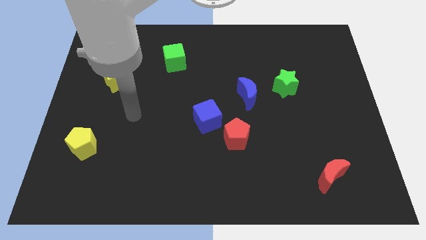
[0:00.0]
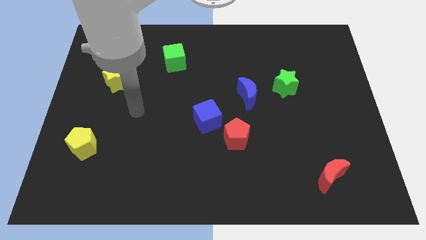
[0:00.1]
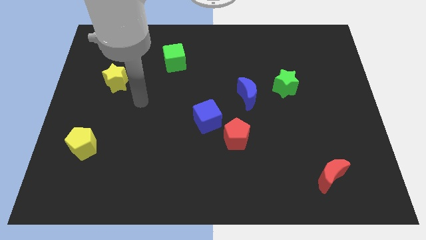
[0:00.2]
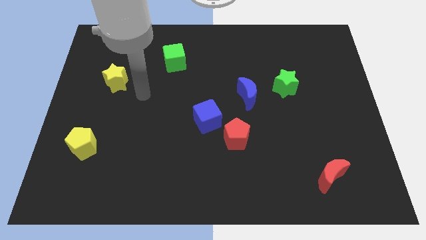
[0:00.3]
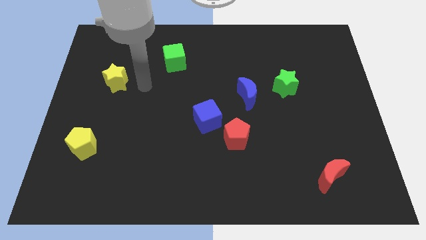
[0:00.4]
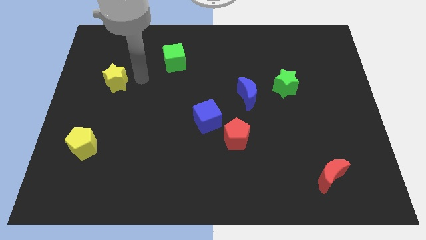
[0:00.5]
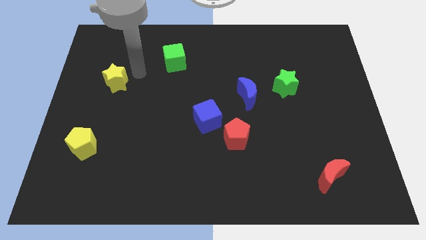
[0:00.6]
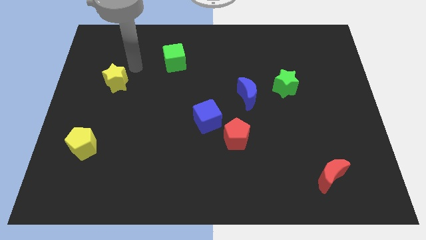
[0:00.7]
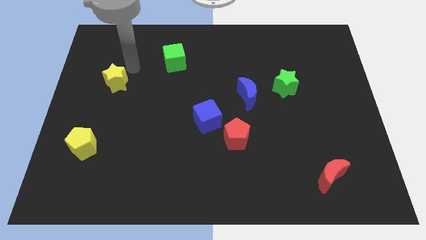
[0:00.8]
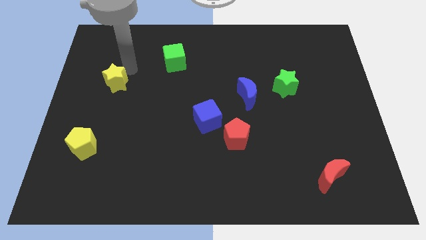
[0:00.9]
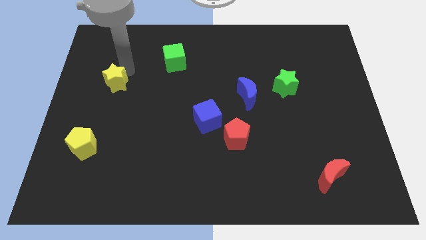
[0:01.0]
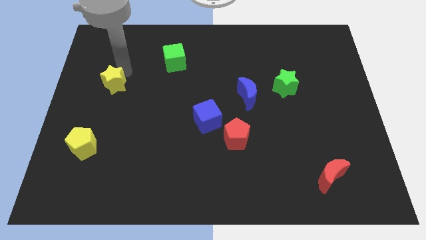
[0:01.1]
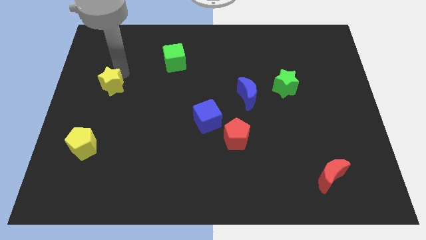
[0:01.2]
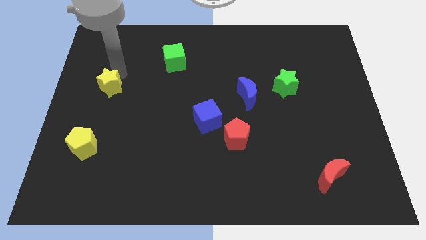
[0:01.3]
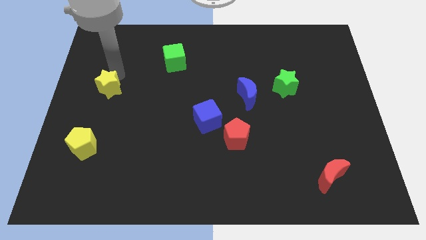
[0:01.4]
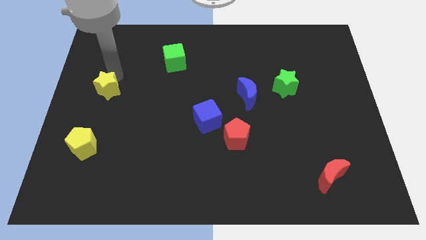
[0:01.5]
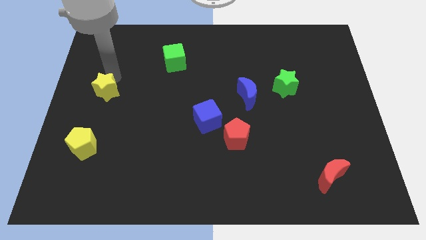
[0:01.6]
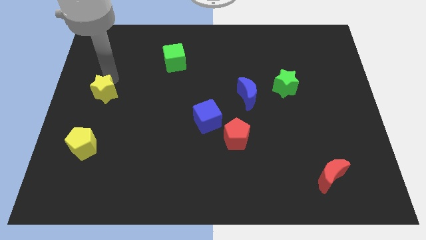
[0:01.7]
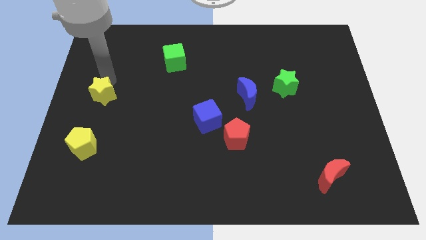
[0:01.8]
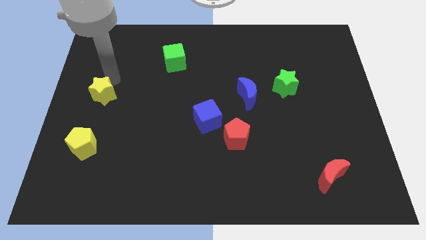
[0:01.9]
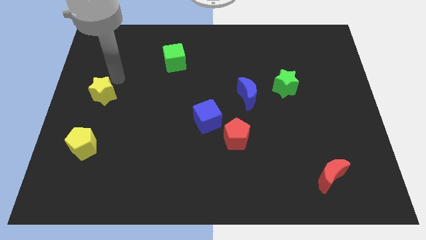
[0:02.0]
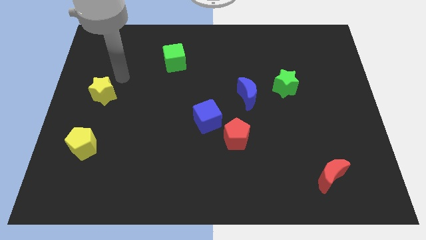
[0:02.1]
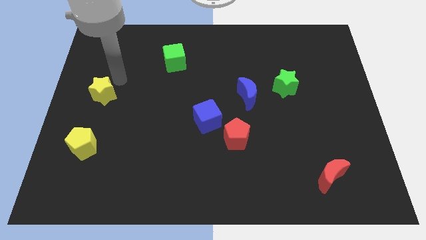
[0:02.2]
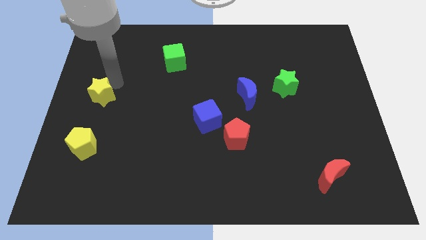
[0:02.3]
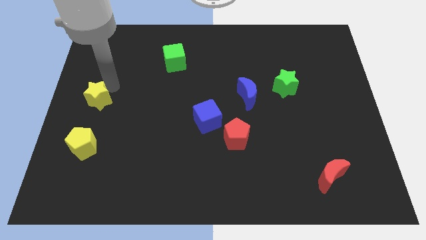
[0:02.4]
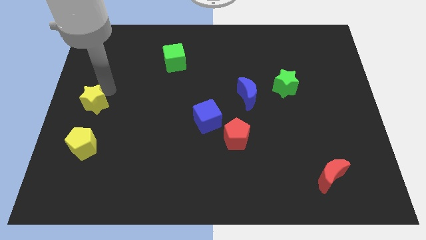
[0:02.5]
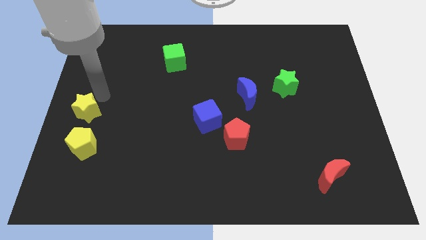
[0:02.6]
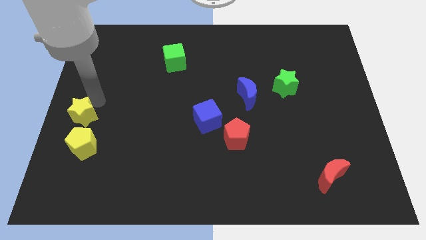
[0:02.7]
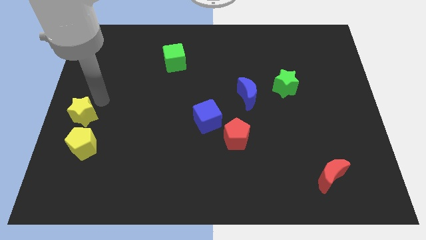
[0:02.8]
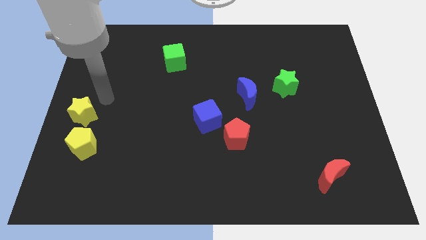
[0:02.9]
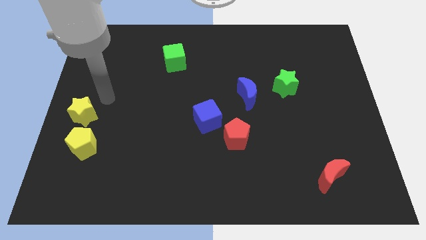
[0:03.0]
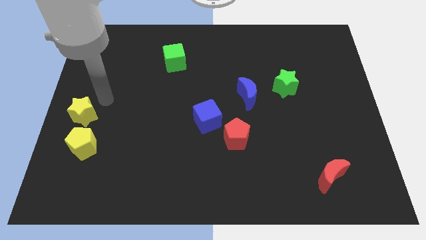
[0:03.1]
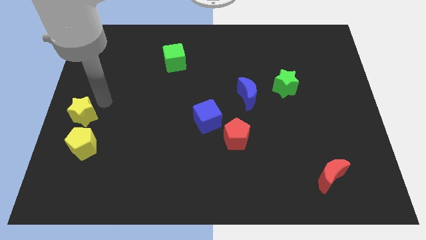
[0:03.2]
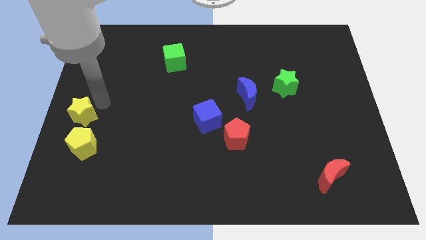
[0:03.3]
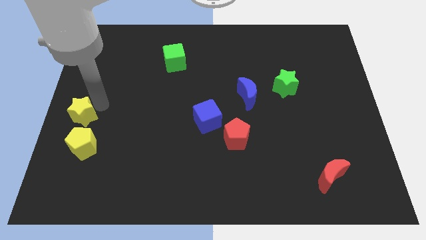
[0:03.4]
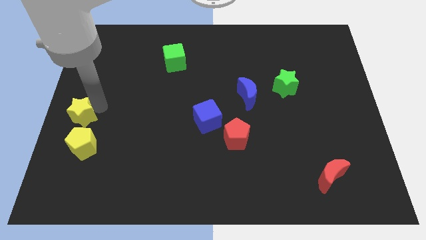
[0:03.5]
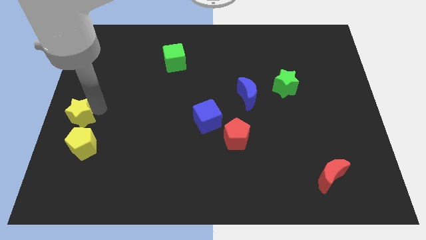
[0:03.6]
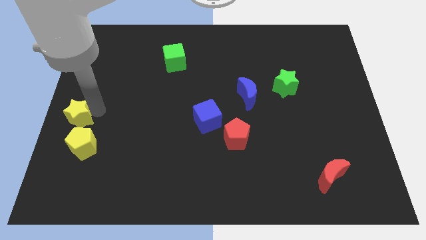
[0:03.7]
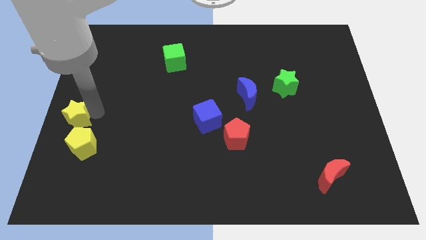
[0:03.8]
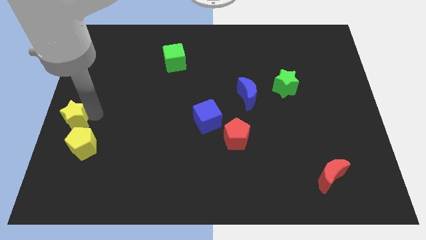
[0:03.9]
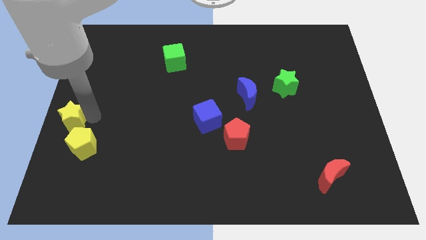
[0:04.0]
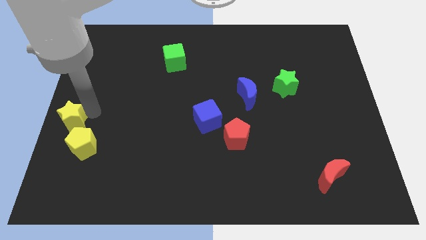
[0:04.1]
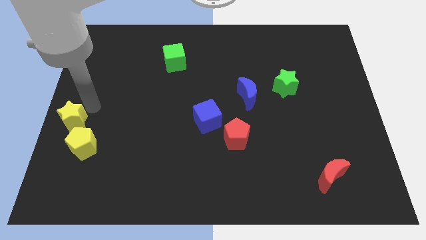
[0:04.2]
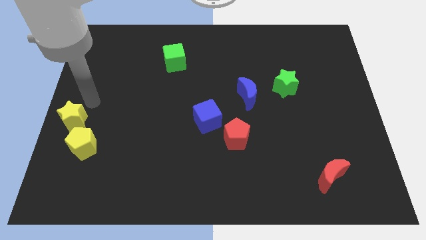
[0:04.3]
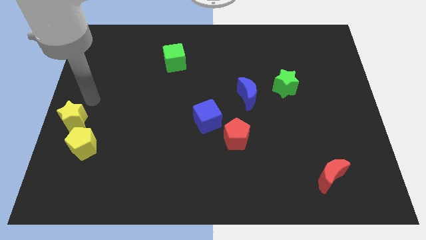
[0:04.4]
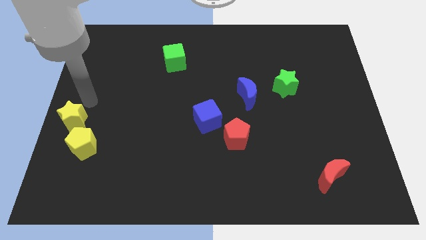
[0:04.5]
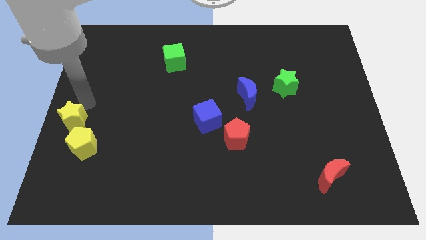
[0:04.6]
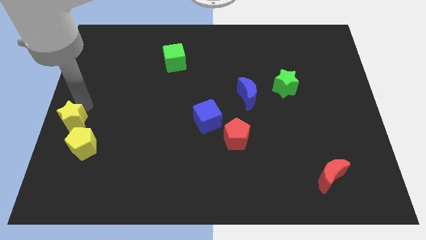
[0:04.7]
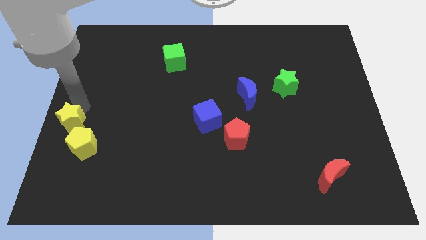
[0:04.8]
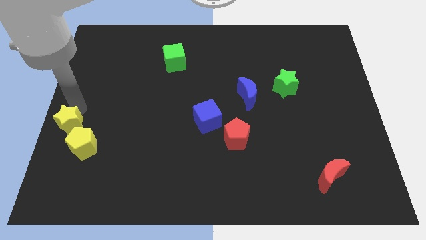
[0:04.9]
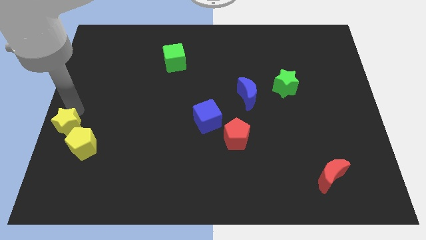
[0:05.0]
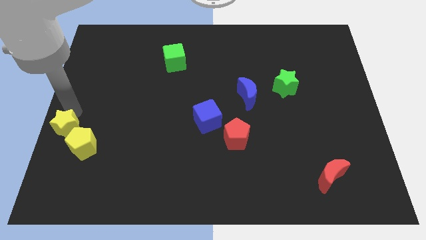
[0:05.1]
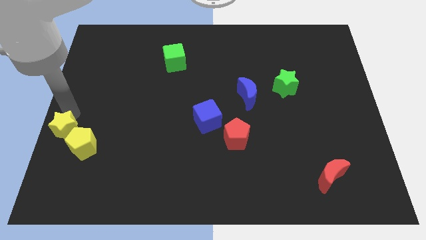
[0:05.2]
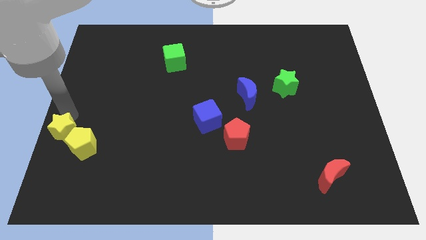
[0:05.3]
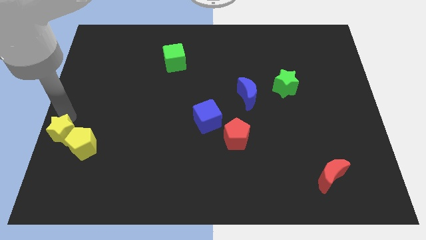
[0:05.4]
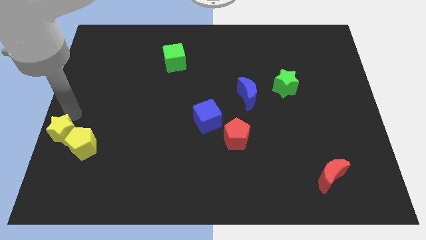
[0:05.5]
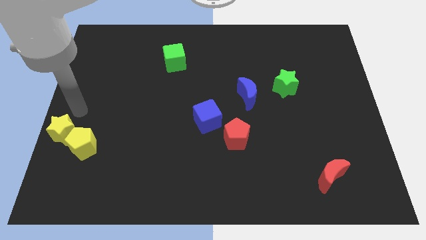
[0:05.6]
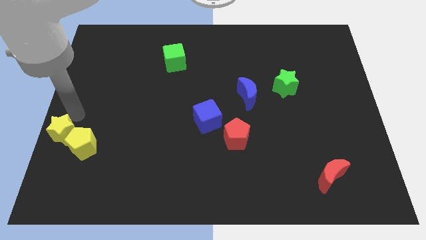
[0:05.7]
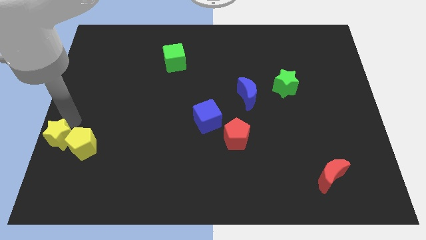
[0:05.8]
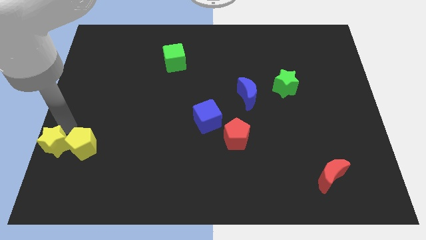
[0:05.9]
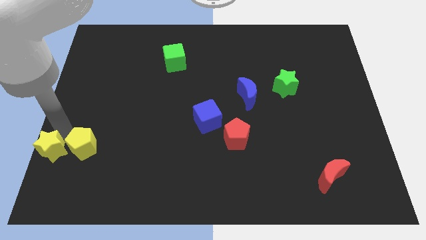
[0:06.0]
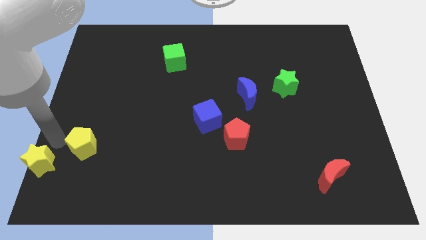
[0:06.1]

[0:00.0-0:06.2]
push the yellow star to the lower left corner

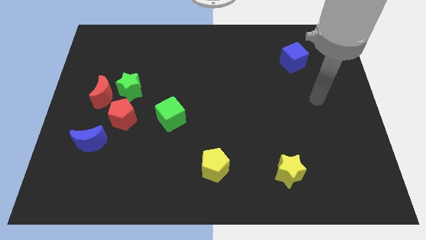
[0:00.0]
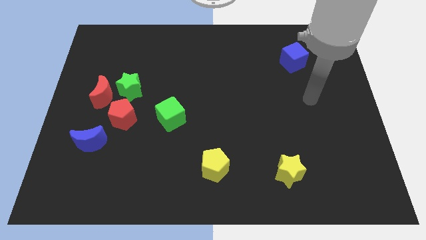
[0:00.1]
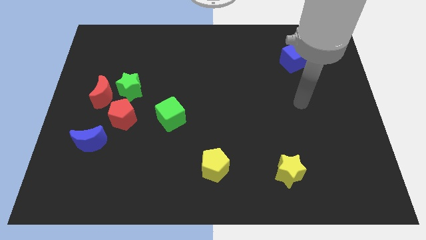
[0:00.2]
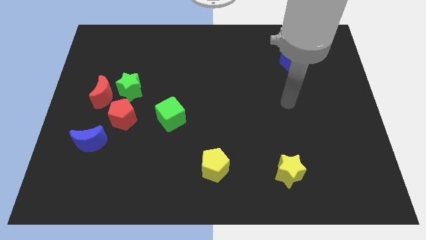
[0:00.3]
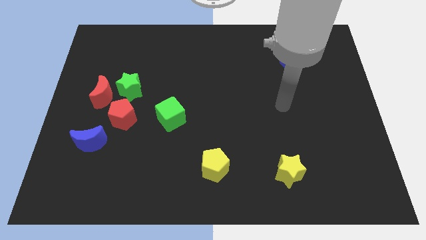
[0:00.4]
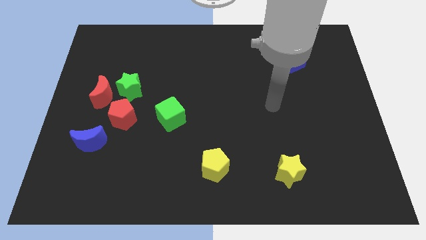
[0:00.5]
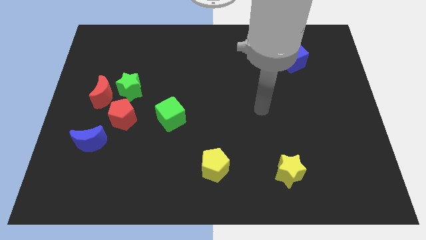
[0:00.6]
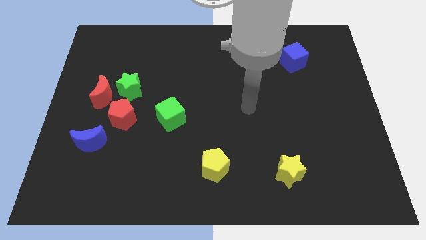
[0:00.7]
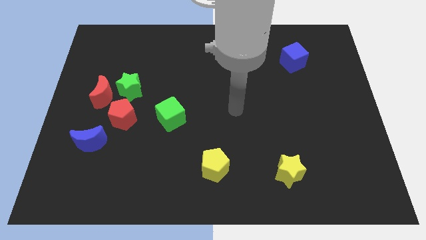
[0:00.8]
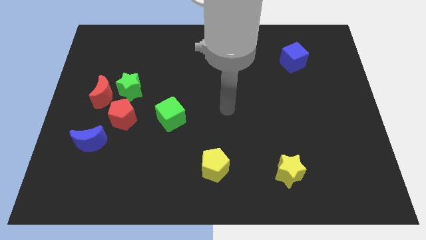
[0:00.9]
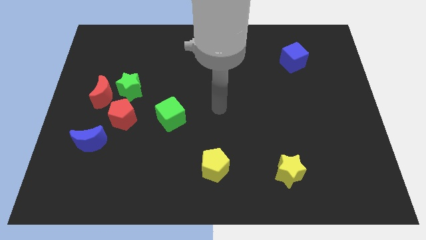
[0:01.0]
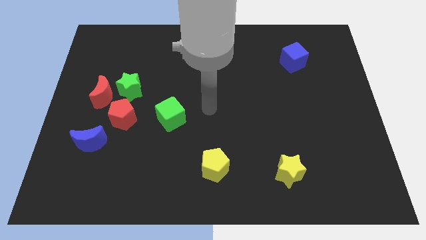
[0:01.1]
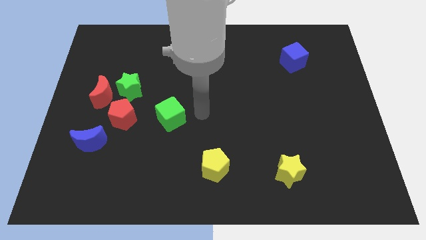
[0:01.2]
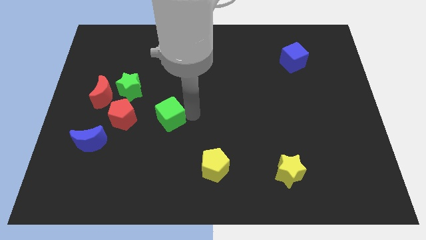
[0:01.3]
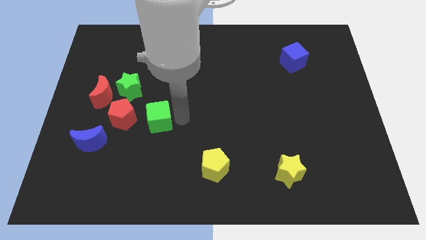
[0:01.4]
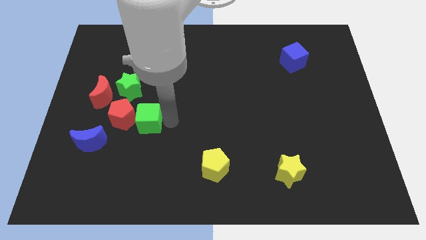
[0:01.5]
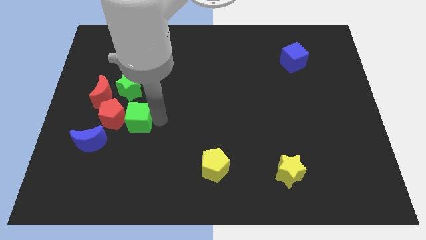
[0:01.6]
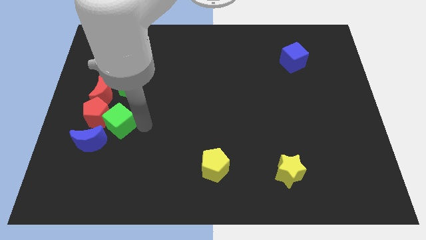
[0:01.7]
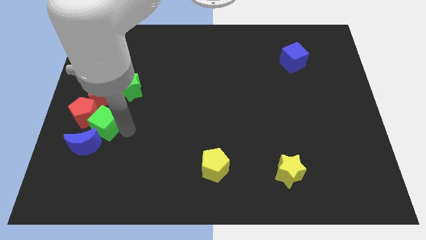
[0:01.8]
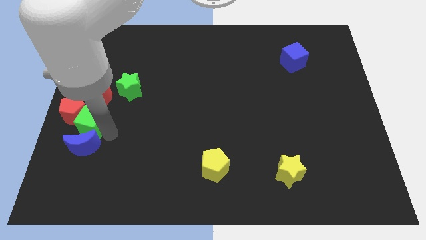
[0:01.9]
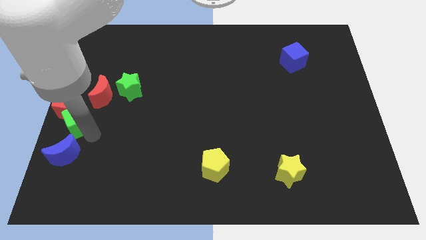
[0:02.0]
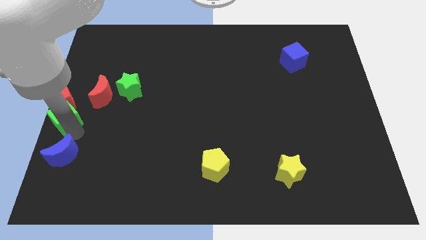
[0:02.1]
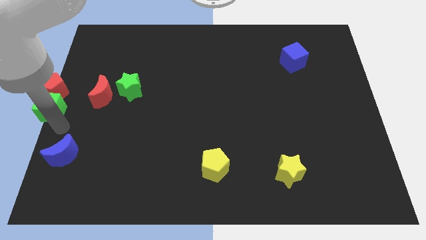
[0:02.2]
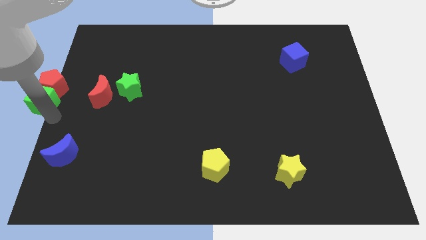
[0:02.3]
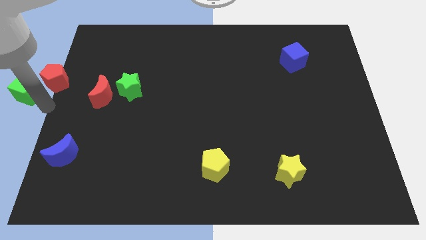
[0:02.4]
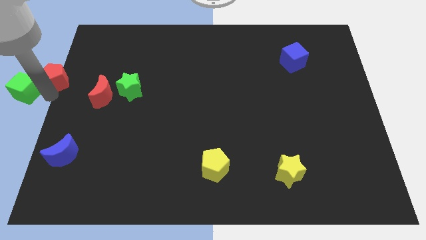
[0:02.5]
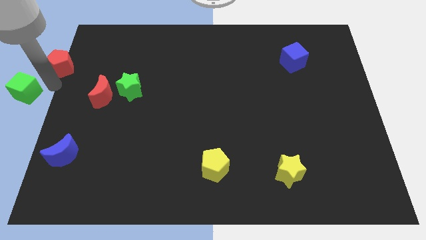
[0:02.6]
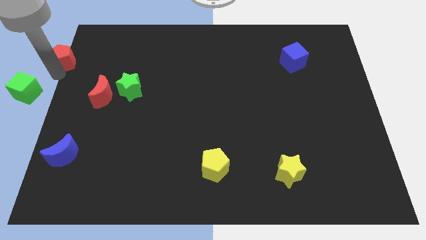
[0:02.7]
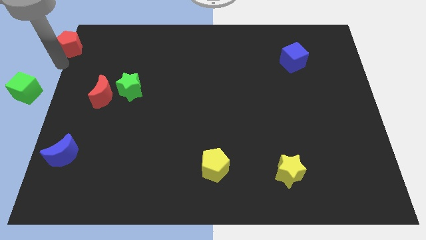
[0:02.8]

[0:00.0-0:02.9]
push the red pentagon to the top left
